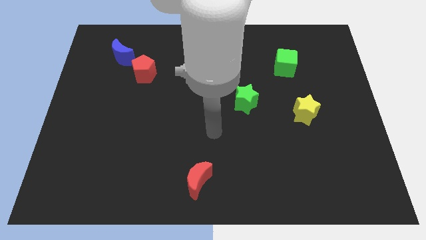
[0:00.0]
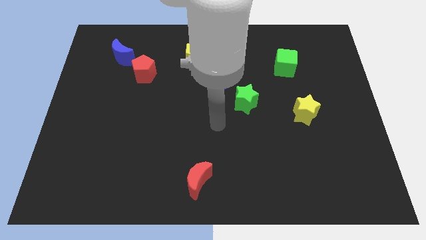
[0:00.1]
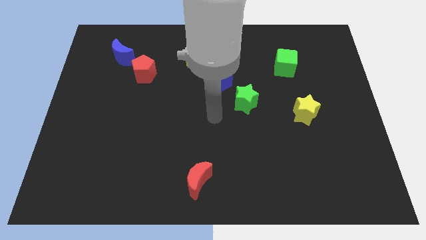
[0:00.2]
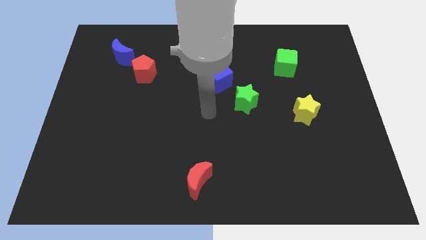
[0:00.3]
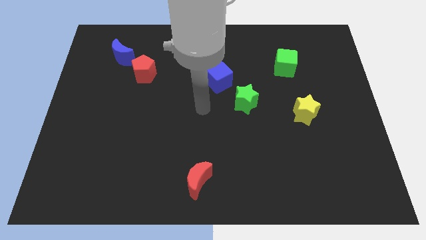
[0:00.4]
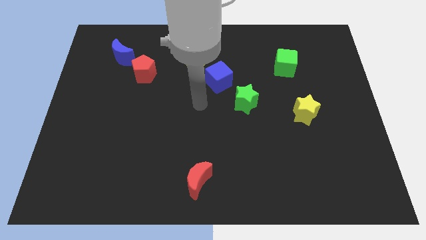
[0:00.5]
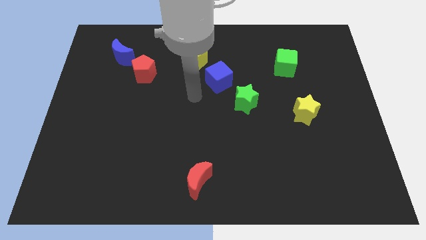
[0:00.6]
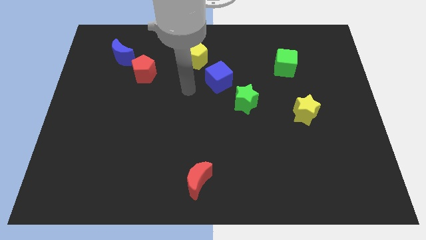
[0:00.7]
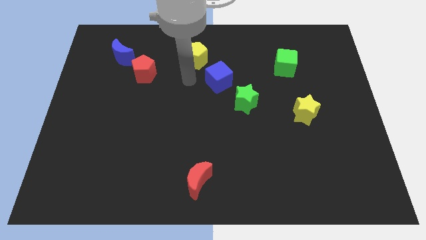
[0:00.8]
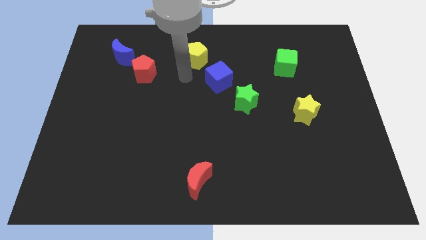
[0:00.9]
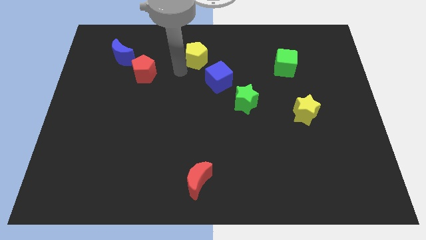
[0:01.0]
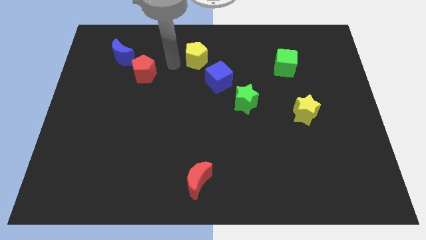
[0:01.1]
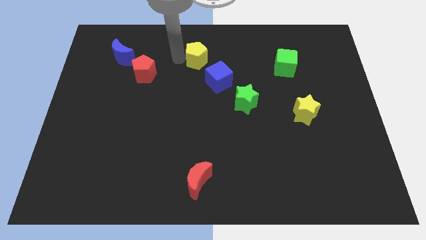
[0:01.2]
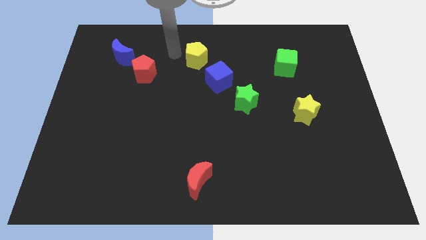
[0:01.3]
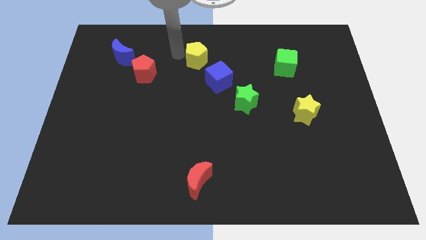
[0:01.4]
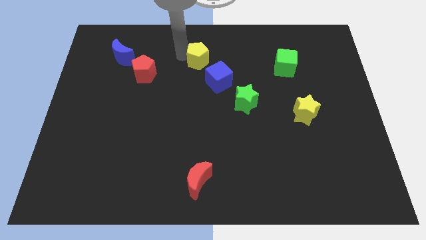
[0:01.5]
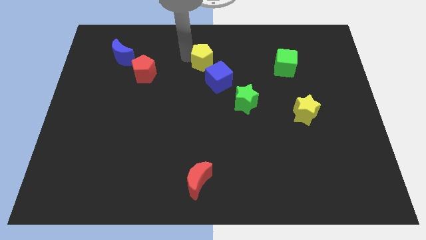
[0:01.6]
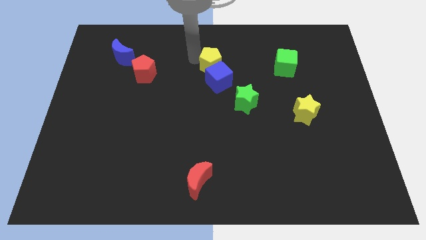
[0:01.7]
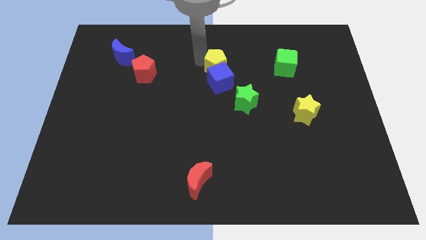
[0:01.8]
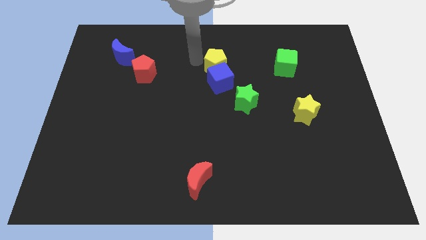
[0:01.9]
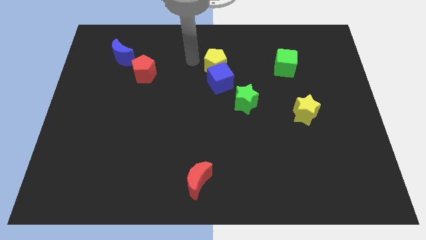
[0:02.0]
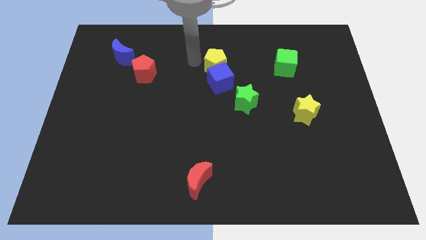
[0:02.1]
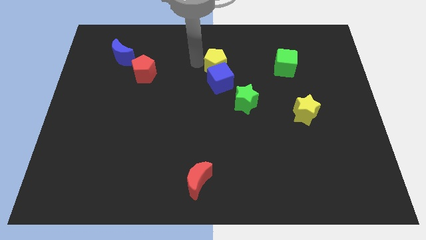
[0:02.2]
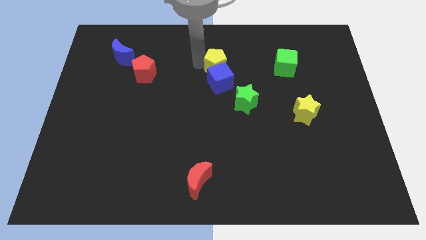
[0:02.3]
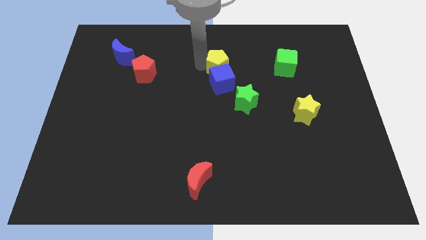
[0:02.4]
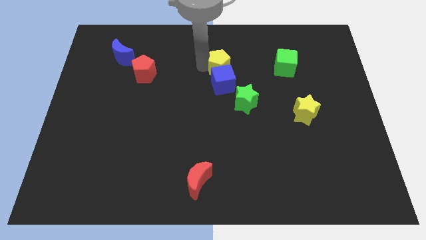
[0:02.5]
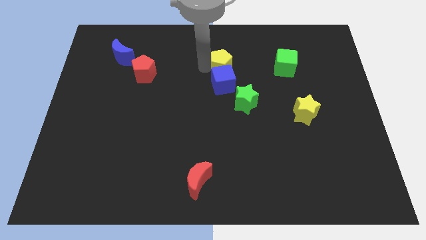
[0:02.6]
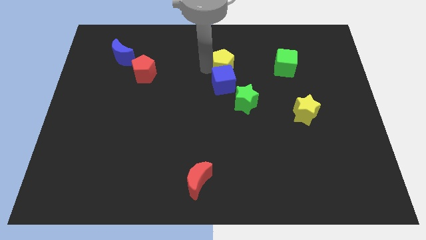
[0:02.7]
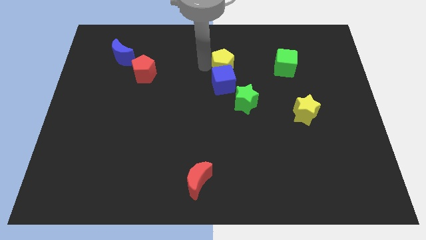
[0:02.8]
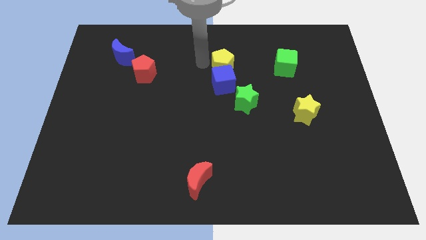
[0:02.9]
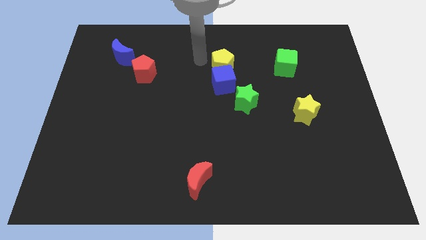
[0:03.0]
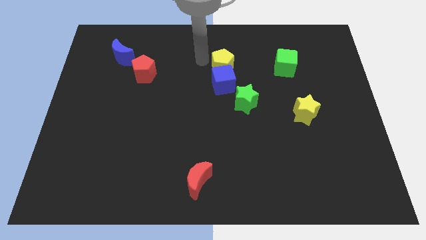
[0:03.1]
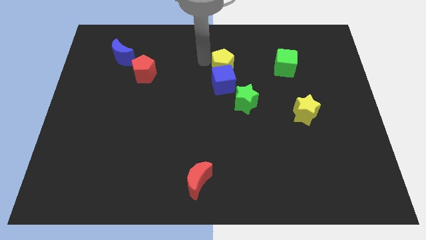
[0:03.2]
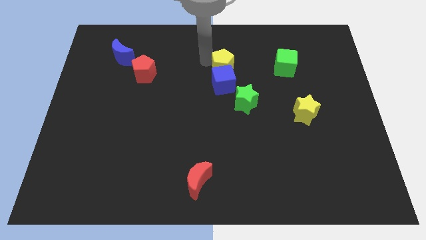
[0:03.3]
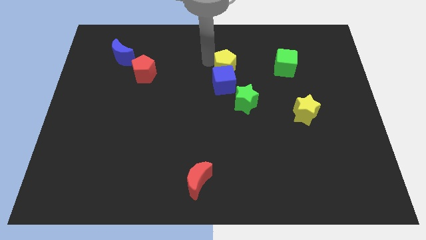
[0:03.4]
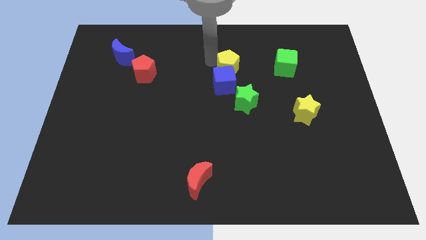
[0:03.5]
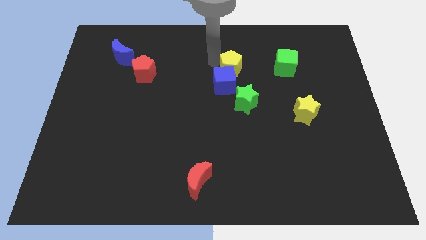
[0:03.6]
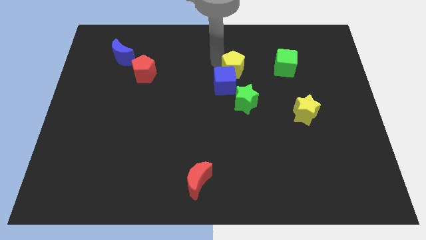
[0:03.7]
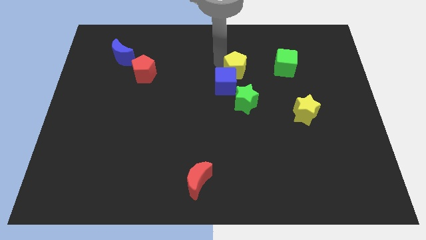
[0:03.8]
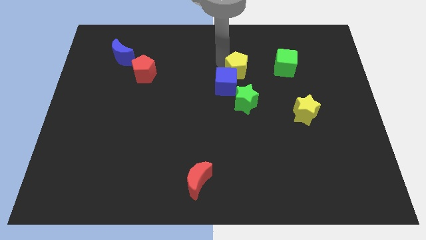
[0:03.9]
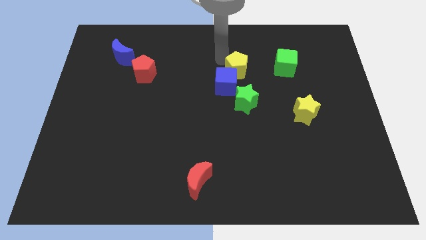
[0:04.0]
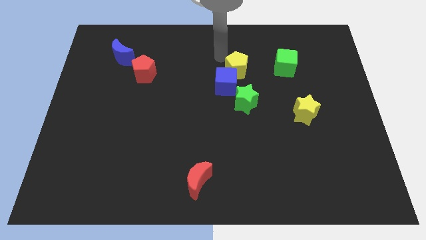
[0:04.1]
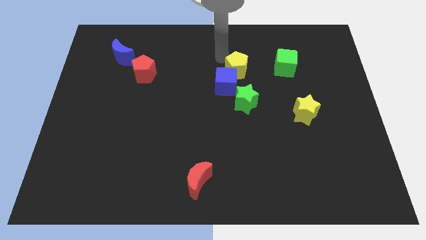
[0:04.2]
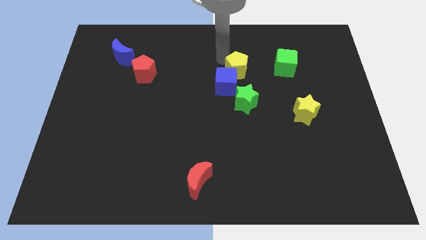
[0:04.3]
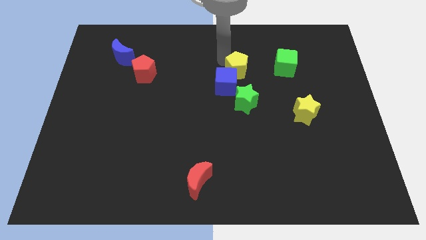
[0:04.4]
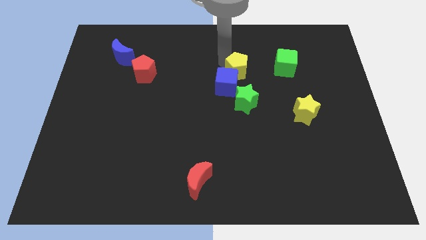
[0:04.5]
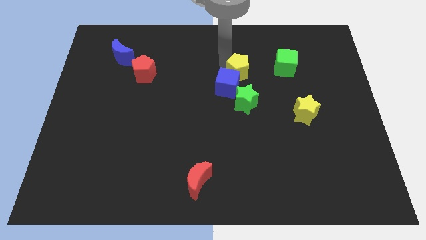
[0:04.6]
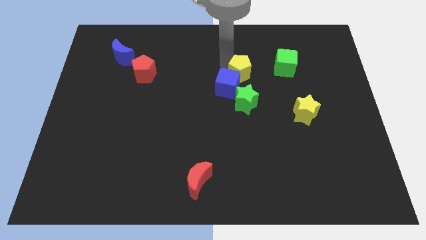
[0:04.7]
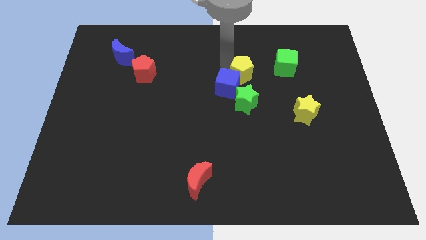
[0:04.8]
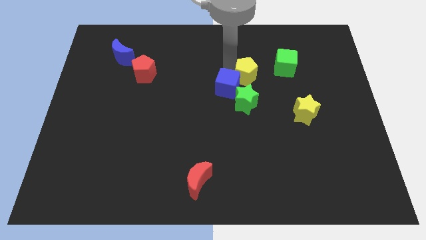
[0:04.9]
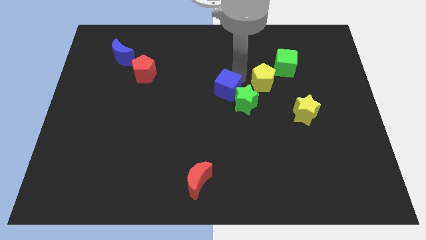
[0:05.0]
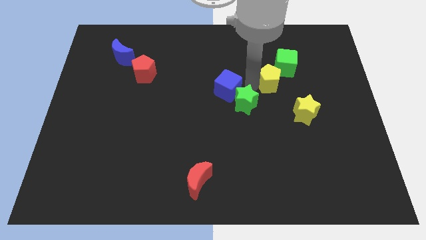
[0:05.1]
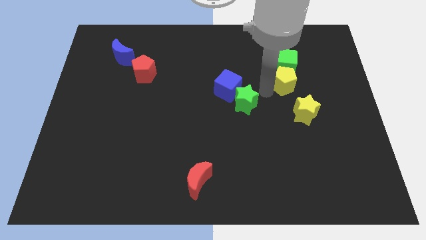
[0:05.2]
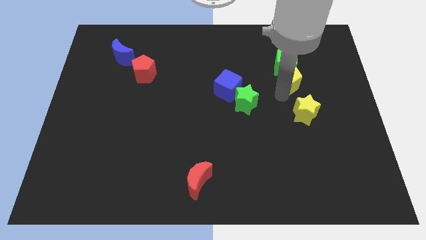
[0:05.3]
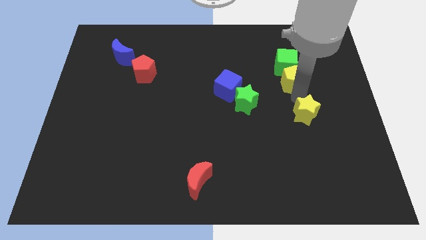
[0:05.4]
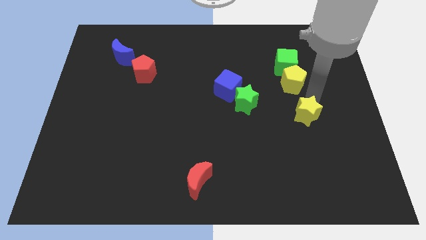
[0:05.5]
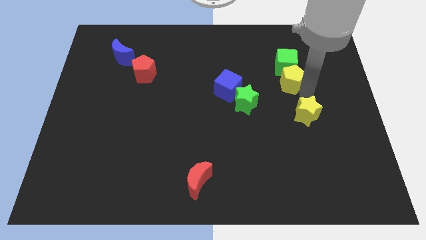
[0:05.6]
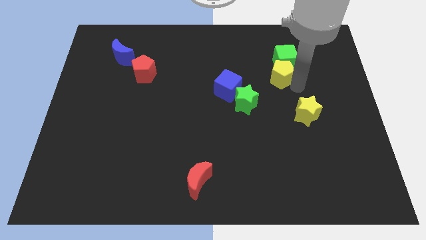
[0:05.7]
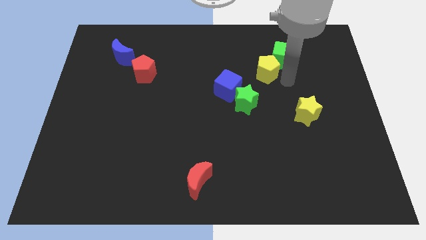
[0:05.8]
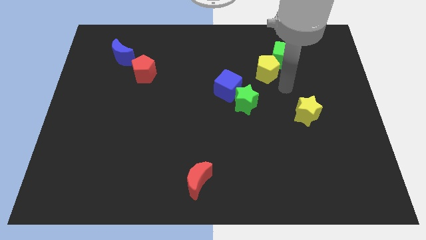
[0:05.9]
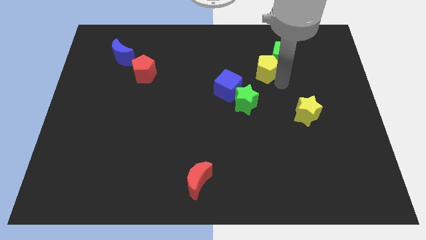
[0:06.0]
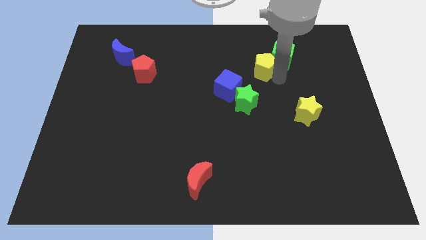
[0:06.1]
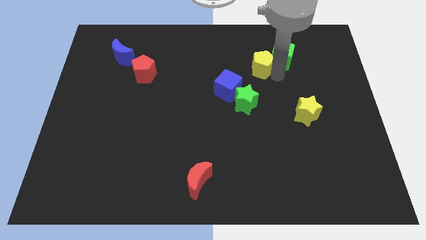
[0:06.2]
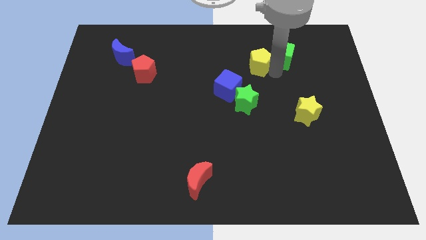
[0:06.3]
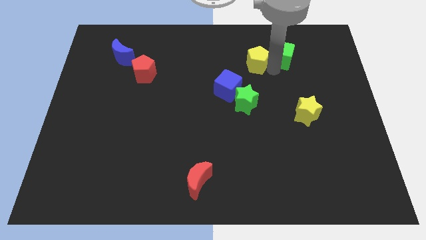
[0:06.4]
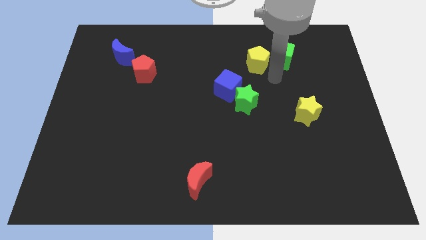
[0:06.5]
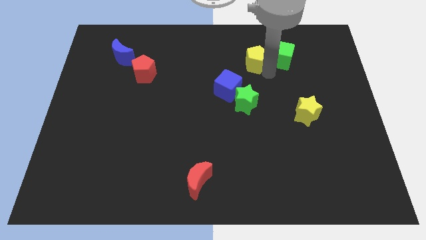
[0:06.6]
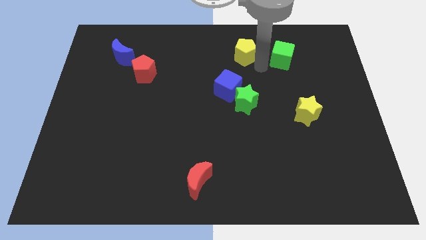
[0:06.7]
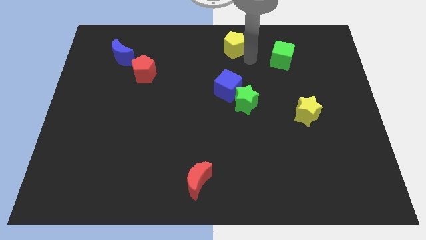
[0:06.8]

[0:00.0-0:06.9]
push the yellow pentagon to the top
